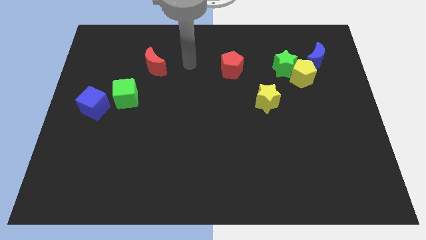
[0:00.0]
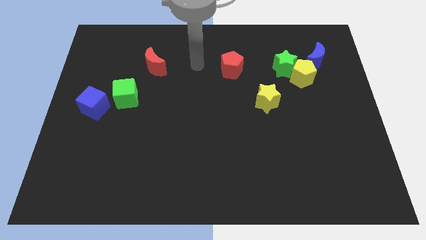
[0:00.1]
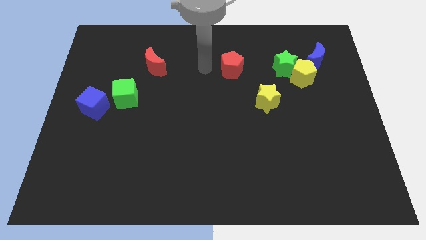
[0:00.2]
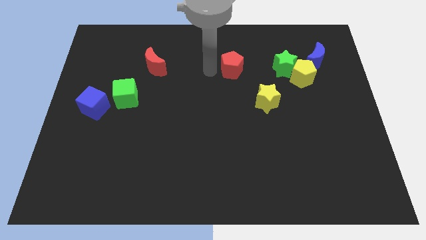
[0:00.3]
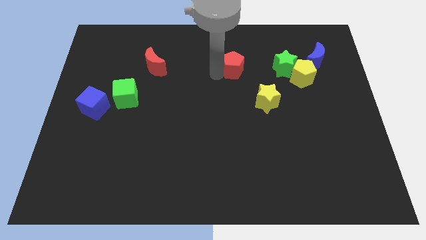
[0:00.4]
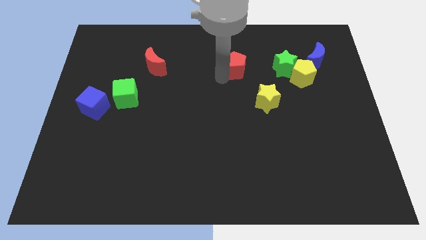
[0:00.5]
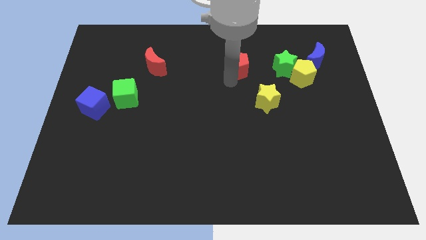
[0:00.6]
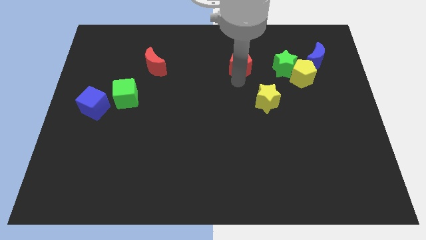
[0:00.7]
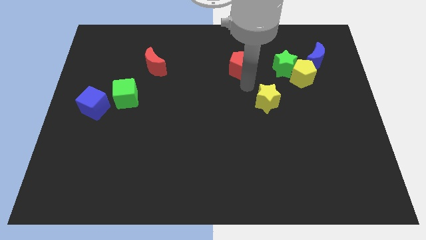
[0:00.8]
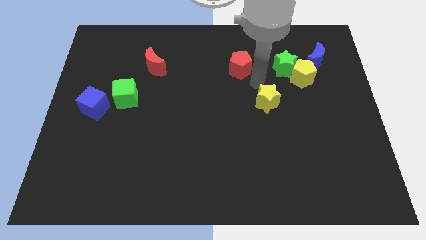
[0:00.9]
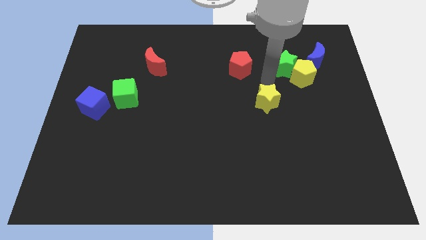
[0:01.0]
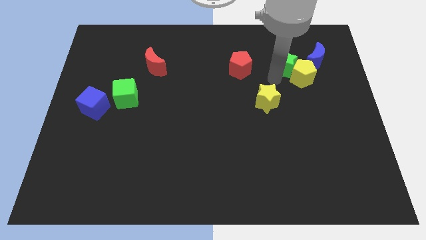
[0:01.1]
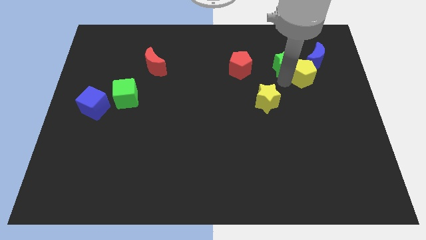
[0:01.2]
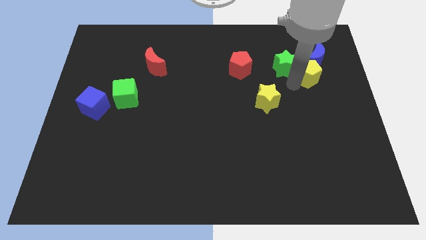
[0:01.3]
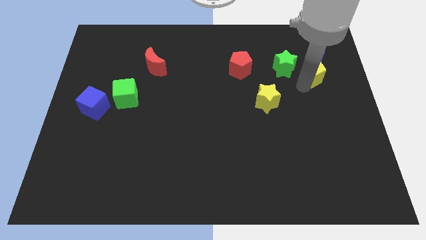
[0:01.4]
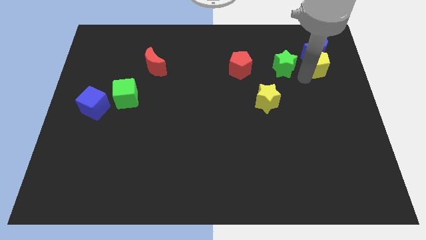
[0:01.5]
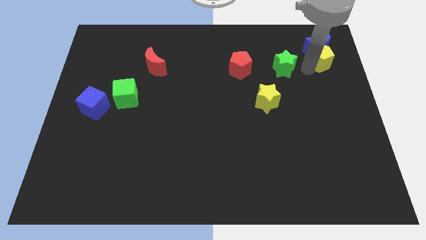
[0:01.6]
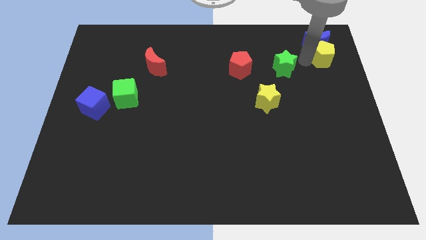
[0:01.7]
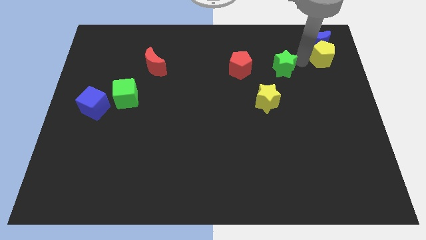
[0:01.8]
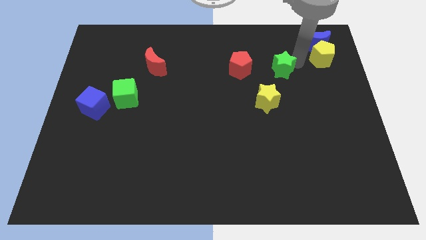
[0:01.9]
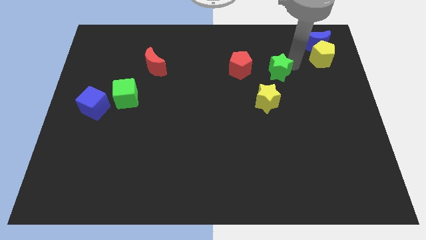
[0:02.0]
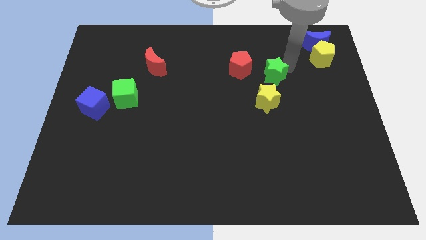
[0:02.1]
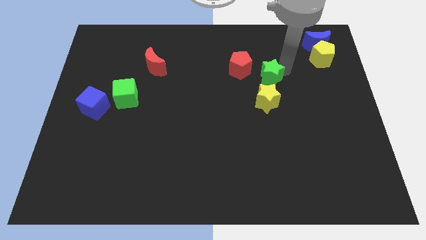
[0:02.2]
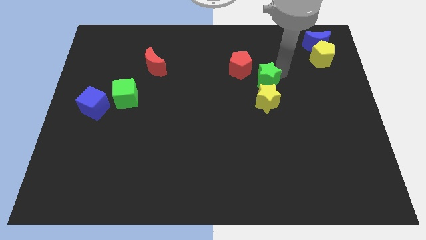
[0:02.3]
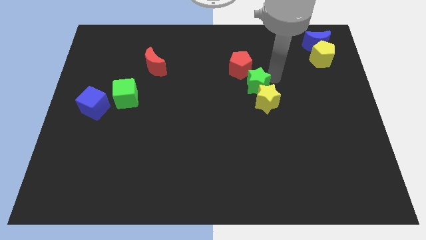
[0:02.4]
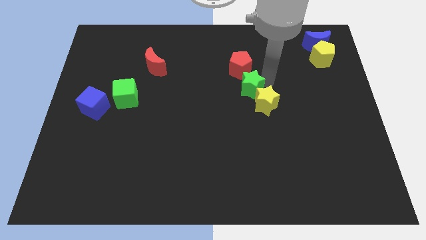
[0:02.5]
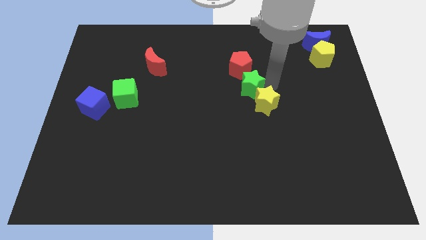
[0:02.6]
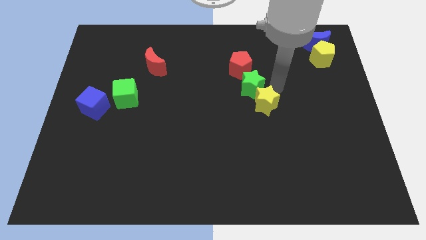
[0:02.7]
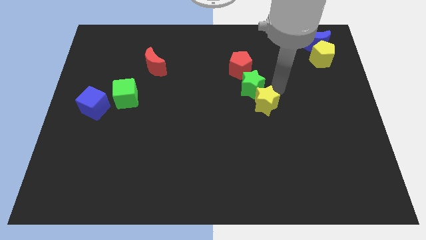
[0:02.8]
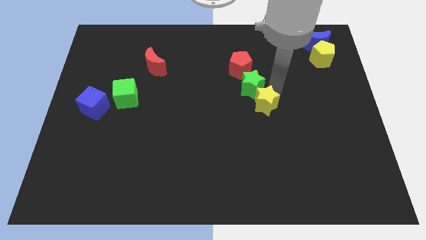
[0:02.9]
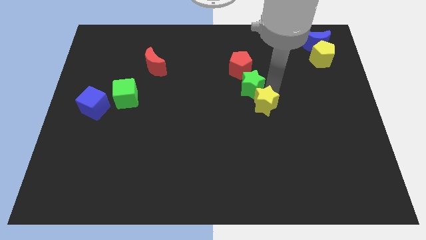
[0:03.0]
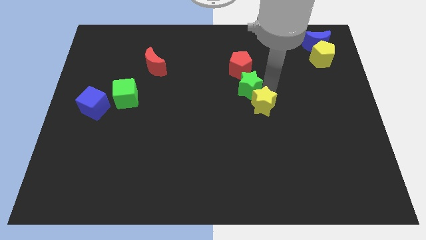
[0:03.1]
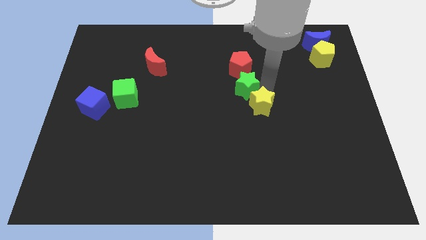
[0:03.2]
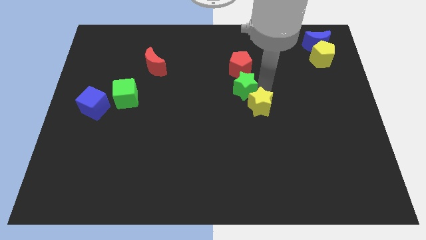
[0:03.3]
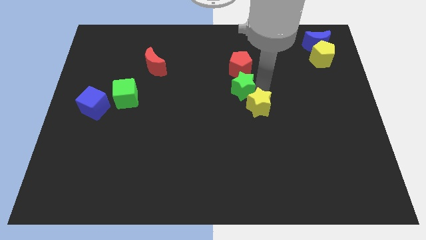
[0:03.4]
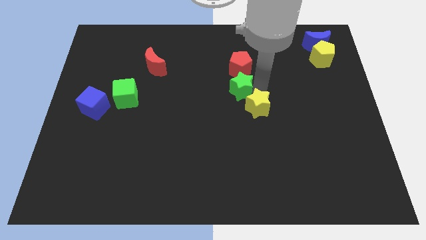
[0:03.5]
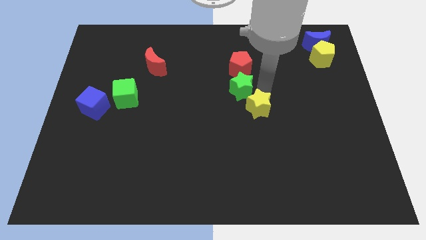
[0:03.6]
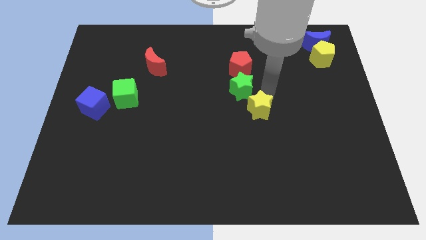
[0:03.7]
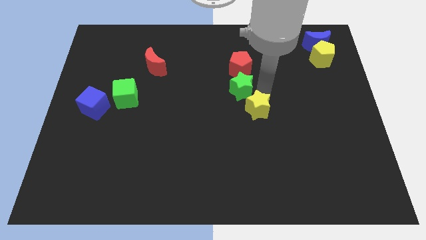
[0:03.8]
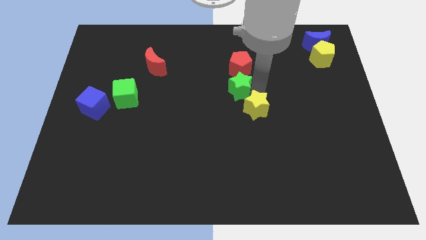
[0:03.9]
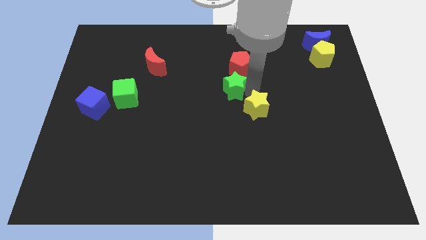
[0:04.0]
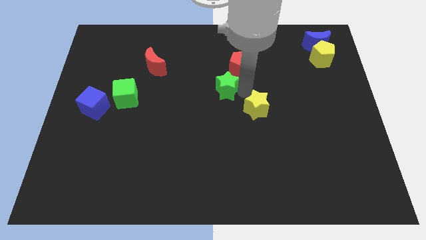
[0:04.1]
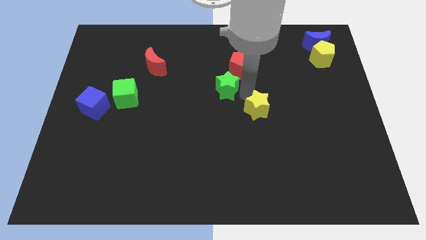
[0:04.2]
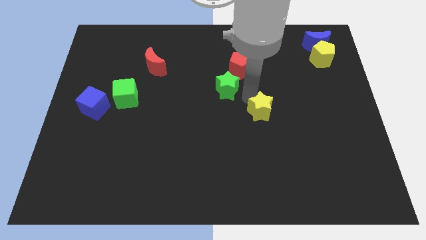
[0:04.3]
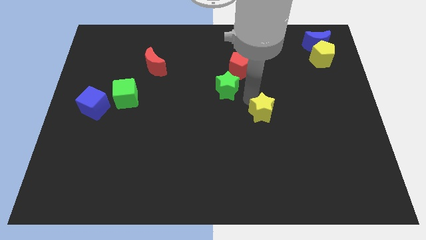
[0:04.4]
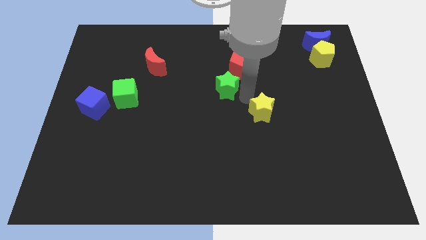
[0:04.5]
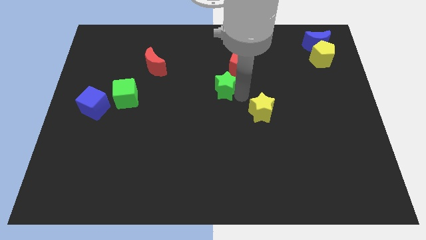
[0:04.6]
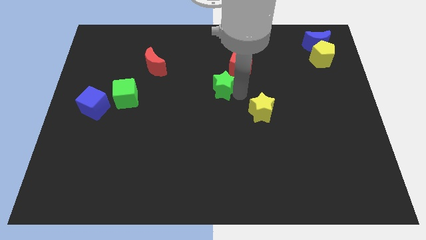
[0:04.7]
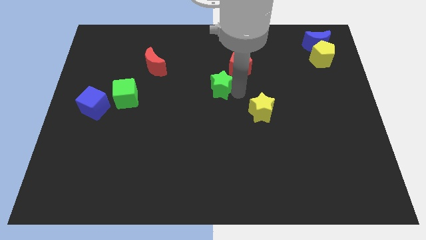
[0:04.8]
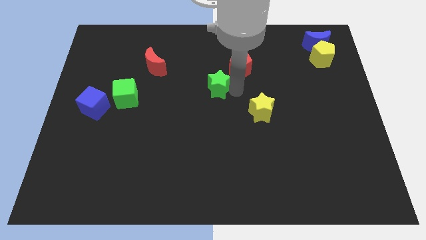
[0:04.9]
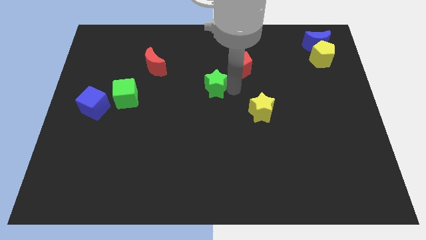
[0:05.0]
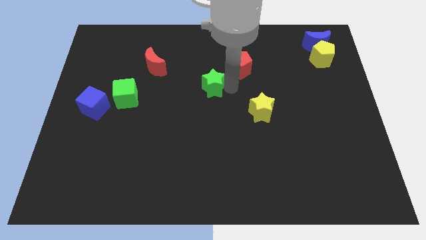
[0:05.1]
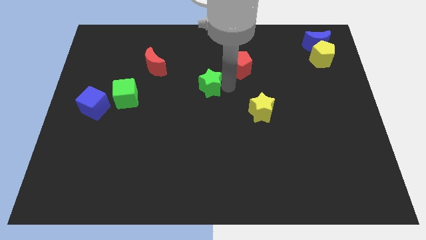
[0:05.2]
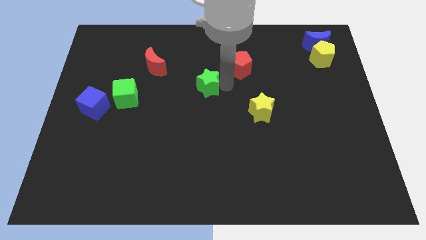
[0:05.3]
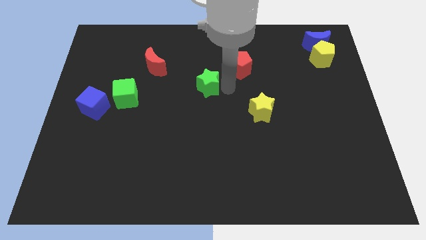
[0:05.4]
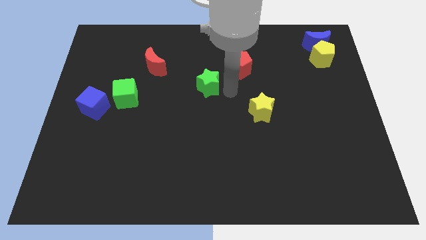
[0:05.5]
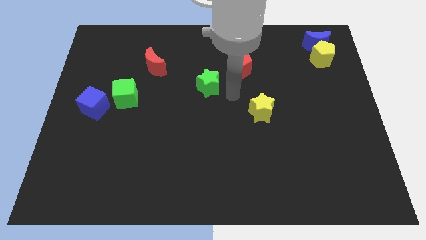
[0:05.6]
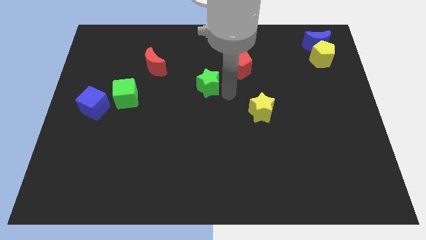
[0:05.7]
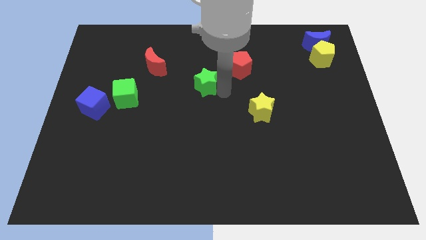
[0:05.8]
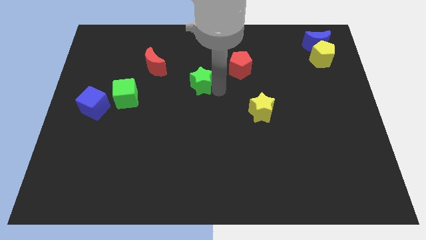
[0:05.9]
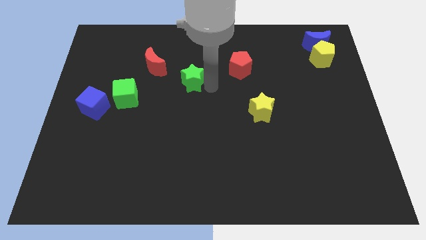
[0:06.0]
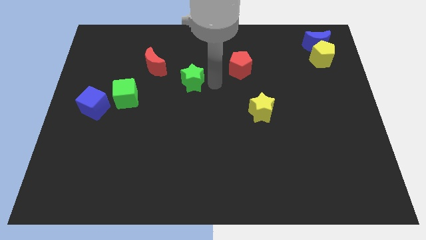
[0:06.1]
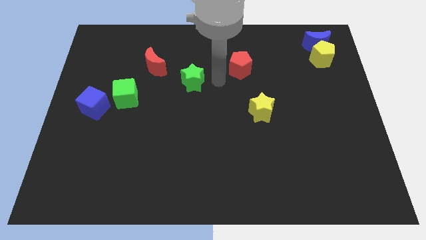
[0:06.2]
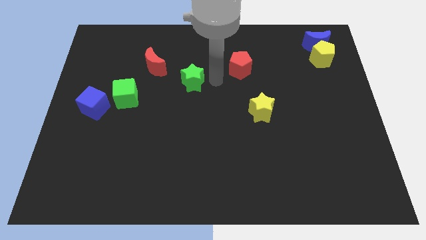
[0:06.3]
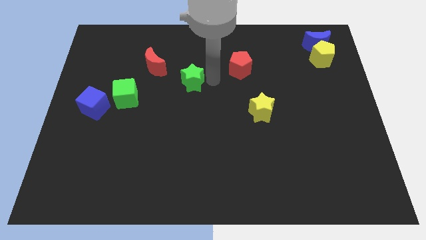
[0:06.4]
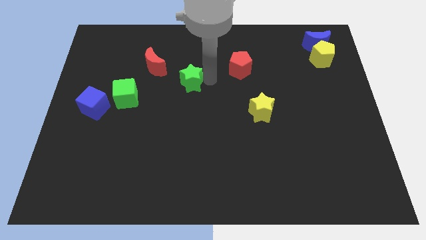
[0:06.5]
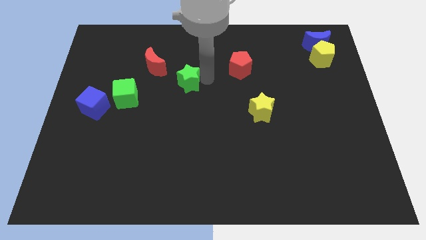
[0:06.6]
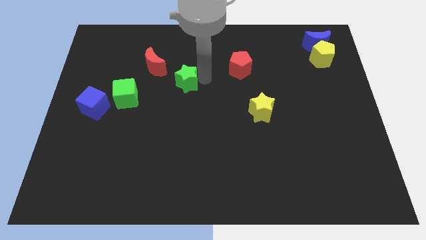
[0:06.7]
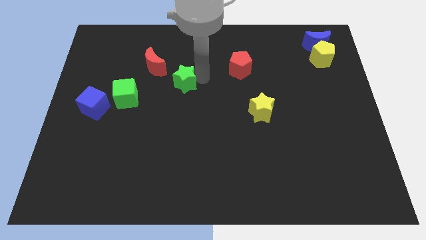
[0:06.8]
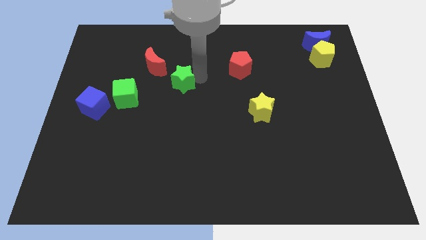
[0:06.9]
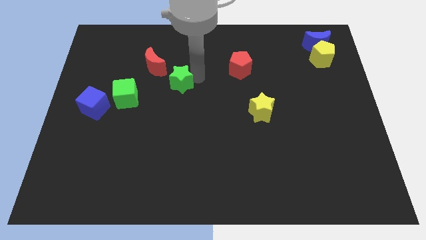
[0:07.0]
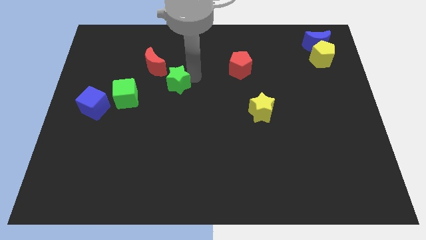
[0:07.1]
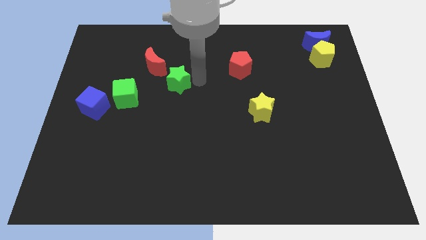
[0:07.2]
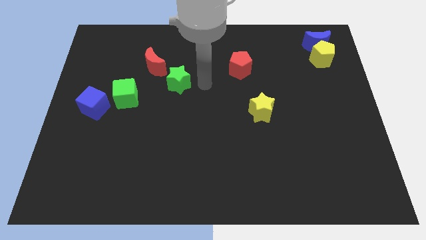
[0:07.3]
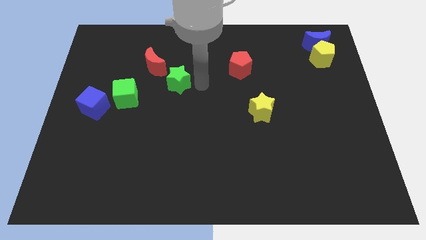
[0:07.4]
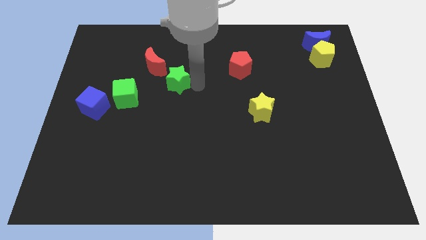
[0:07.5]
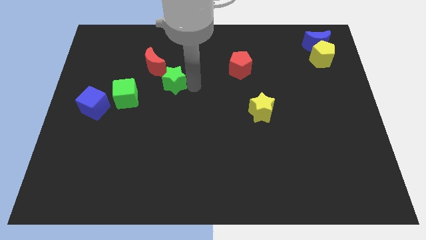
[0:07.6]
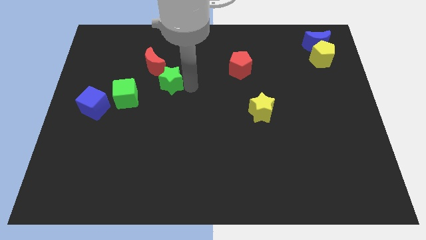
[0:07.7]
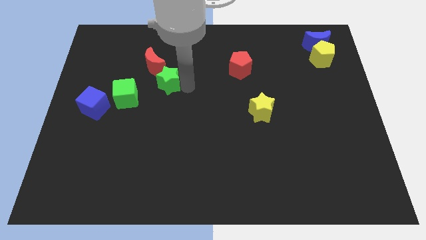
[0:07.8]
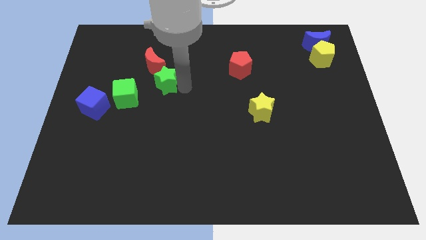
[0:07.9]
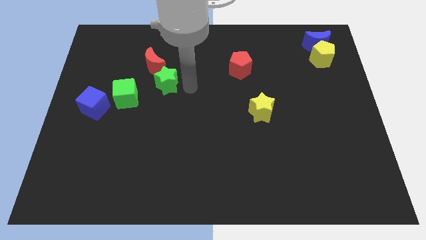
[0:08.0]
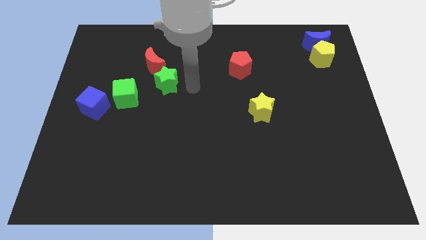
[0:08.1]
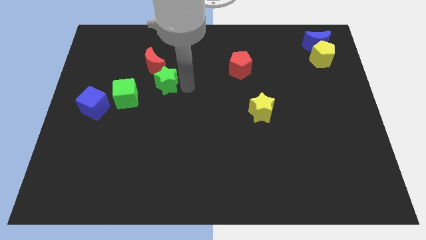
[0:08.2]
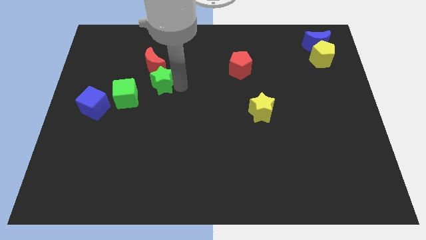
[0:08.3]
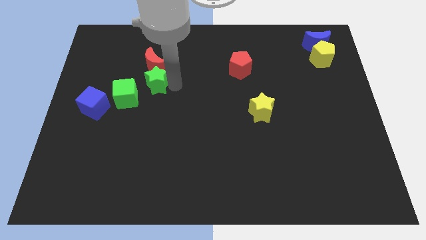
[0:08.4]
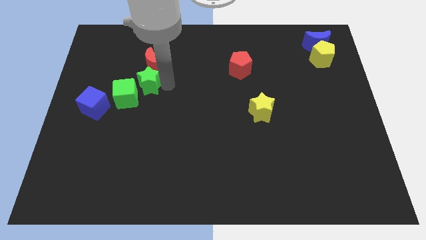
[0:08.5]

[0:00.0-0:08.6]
move the green star to the bottom left side of the red moon
